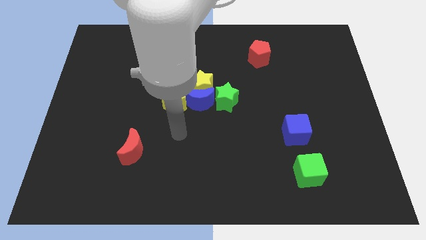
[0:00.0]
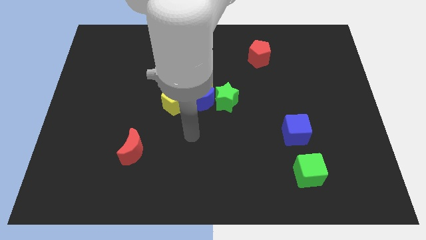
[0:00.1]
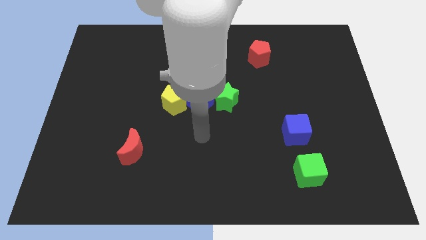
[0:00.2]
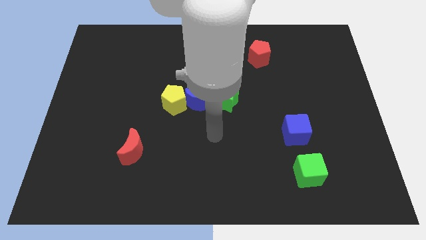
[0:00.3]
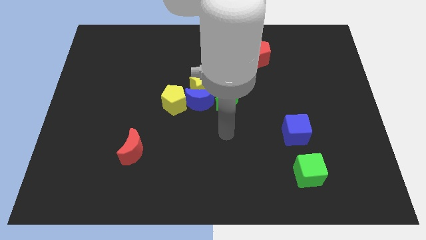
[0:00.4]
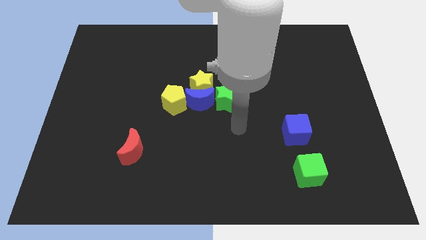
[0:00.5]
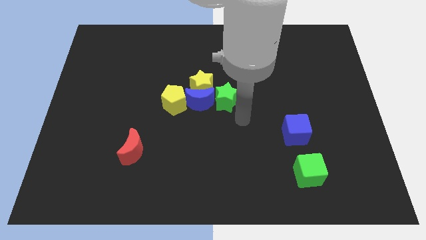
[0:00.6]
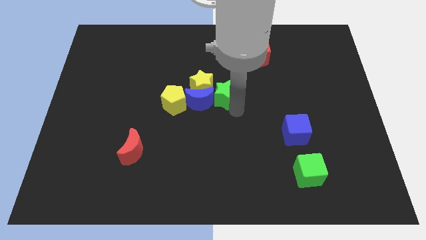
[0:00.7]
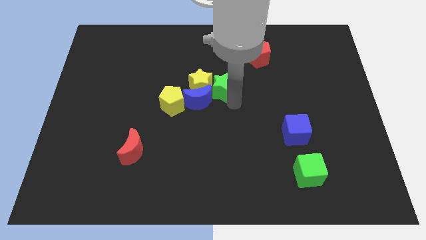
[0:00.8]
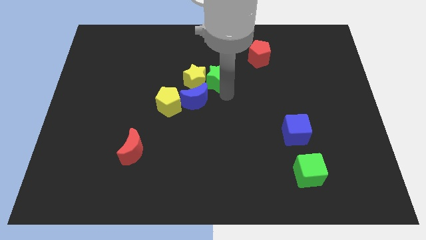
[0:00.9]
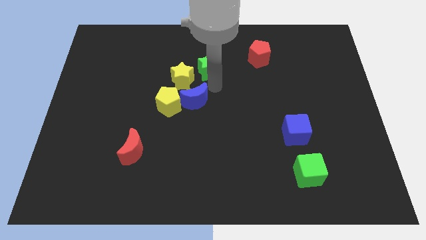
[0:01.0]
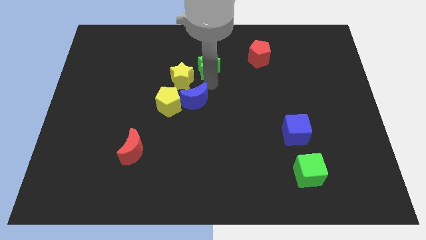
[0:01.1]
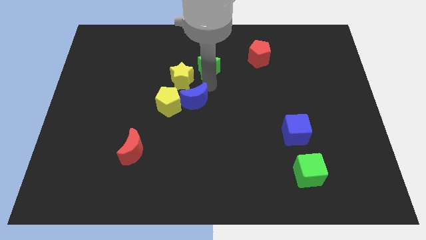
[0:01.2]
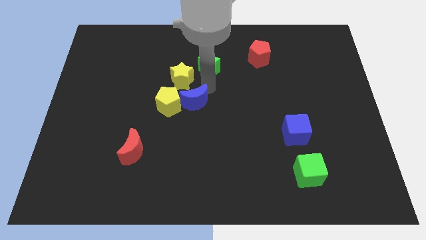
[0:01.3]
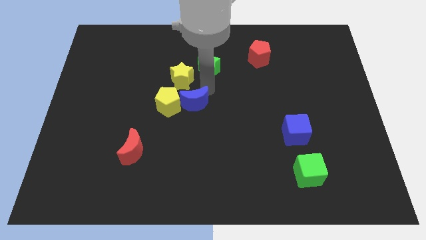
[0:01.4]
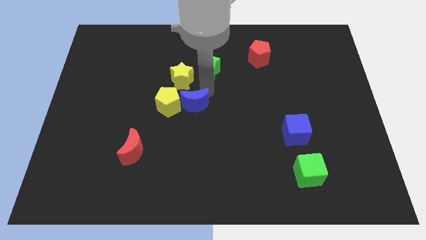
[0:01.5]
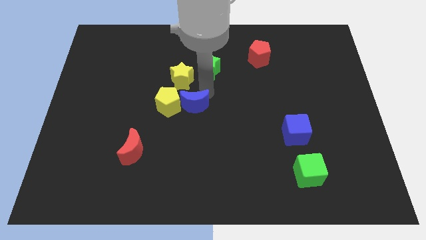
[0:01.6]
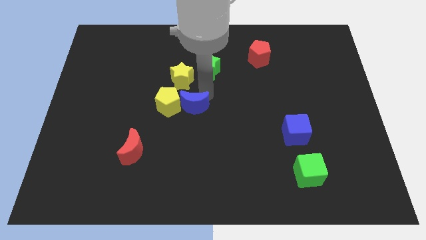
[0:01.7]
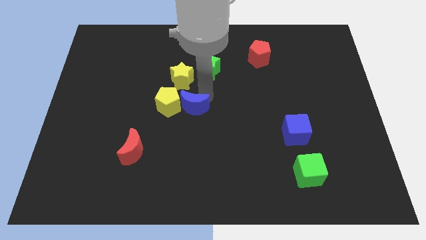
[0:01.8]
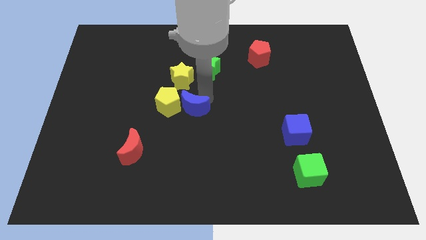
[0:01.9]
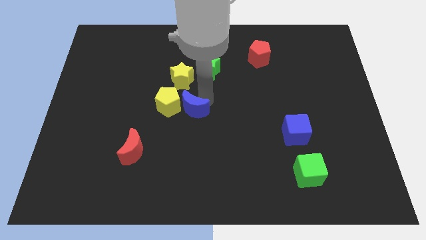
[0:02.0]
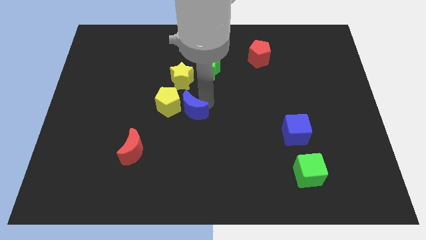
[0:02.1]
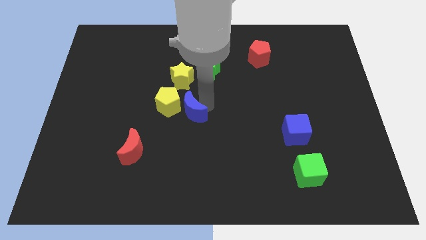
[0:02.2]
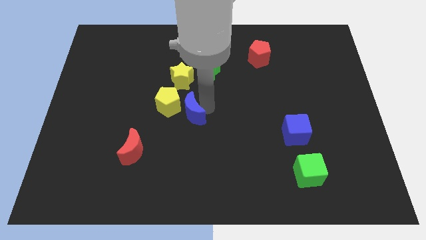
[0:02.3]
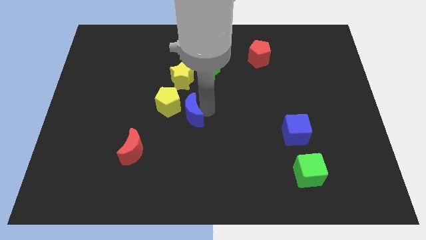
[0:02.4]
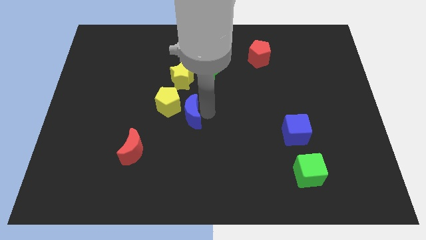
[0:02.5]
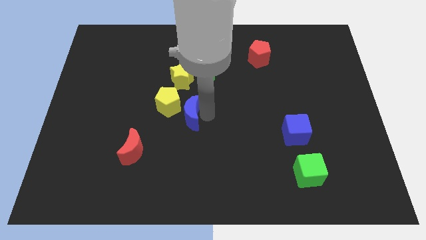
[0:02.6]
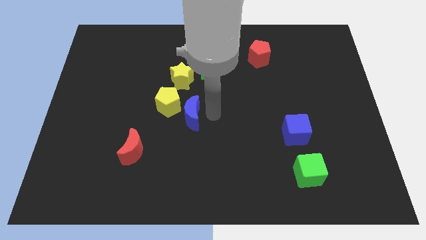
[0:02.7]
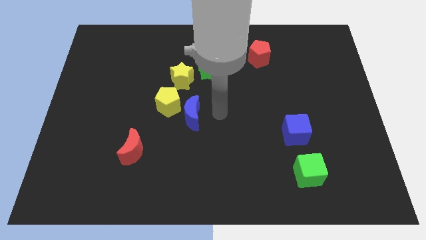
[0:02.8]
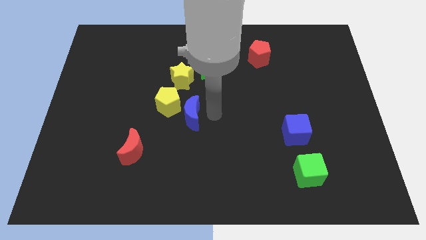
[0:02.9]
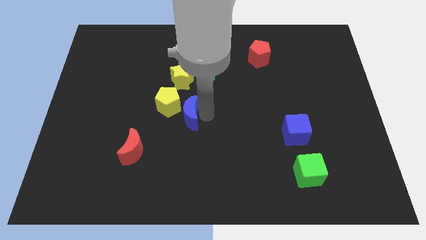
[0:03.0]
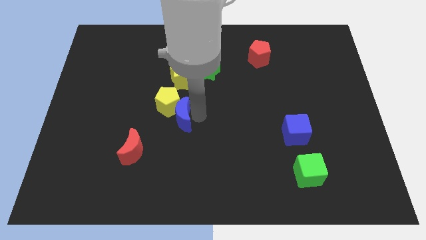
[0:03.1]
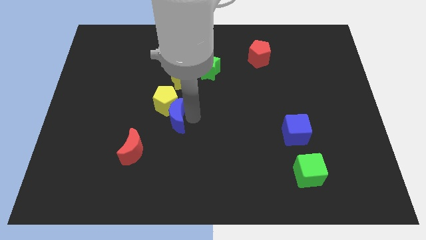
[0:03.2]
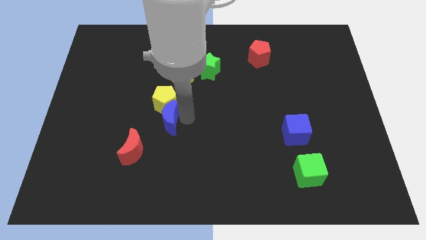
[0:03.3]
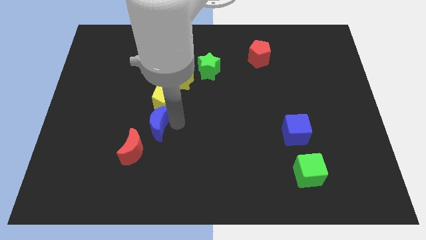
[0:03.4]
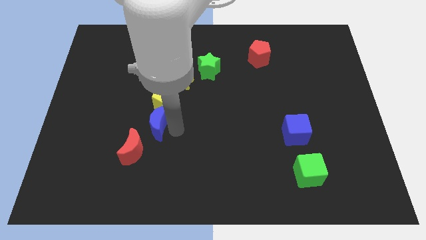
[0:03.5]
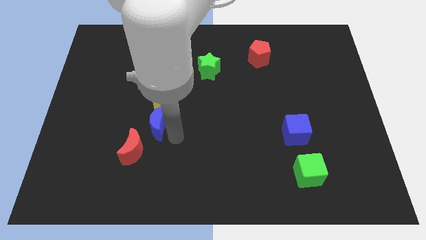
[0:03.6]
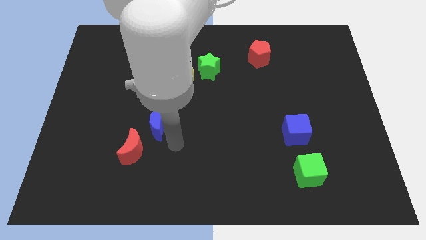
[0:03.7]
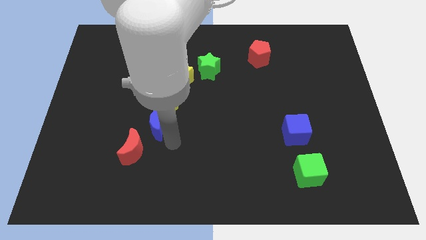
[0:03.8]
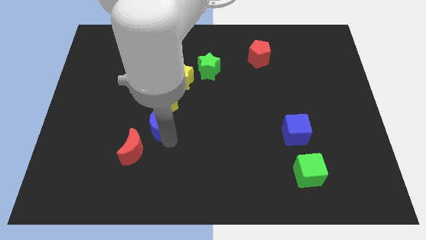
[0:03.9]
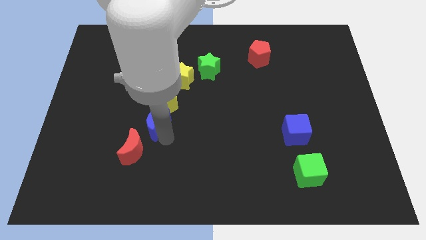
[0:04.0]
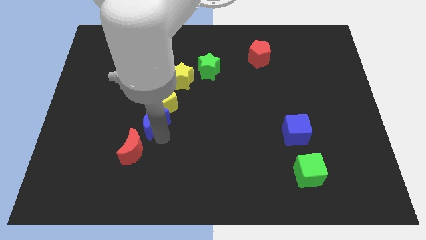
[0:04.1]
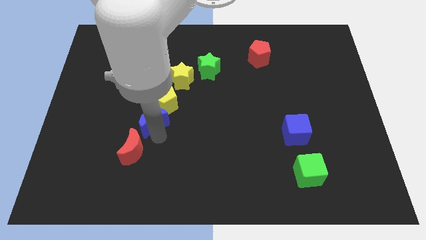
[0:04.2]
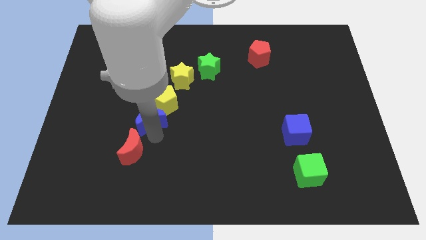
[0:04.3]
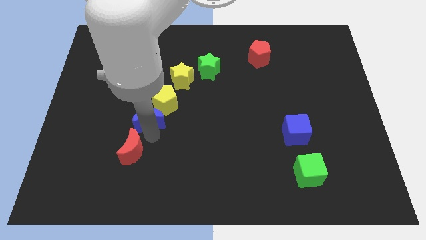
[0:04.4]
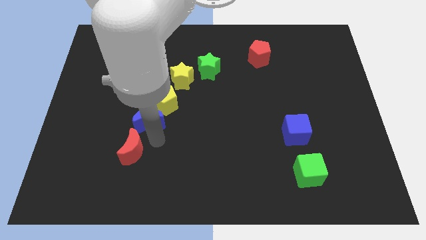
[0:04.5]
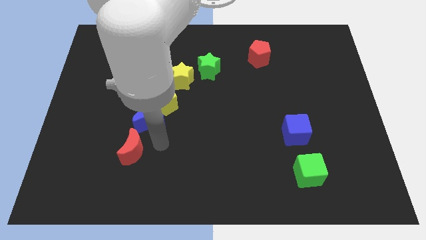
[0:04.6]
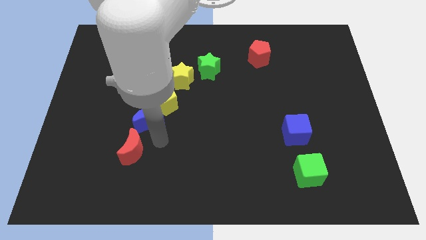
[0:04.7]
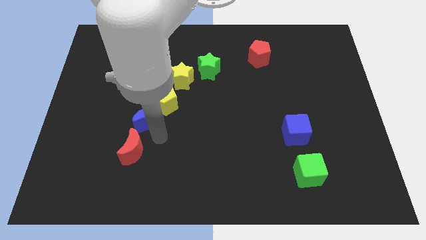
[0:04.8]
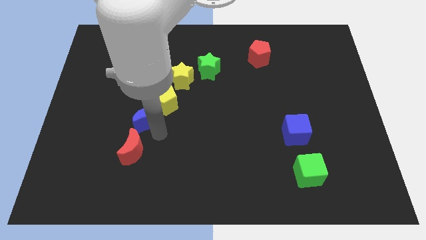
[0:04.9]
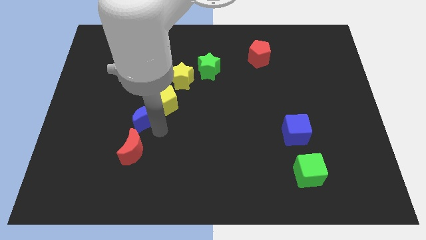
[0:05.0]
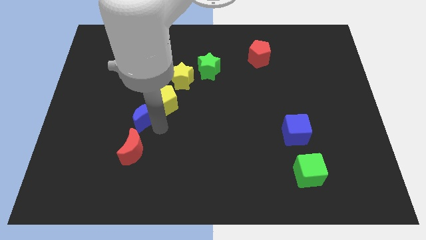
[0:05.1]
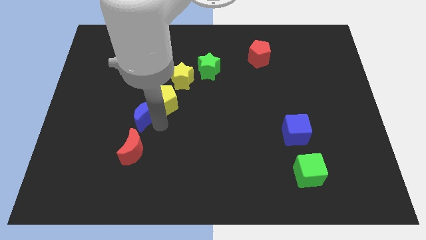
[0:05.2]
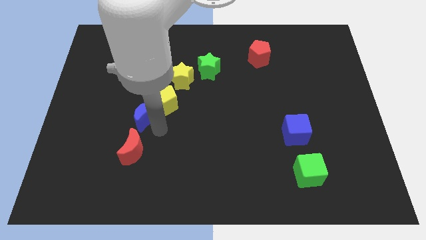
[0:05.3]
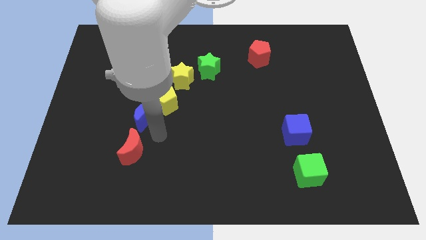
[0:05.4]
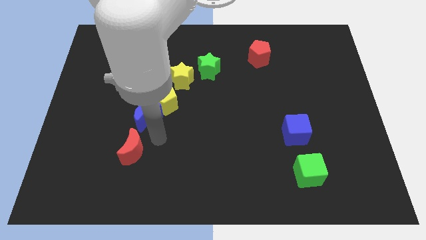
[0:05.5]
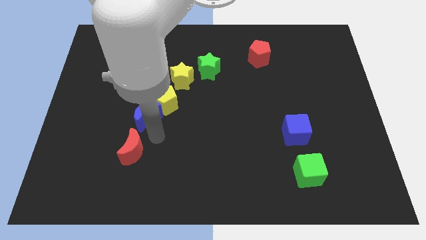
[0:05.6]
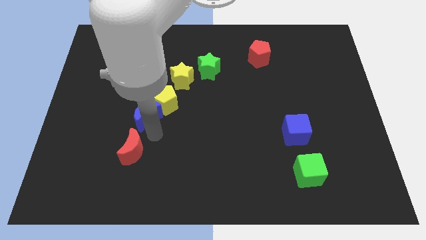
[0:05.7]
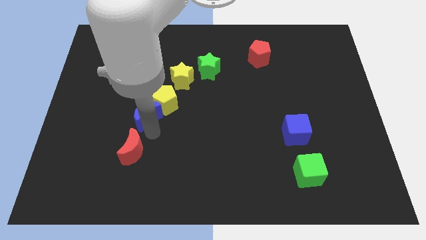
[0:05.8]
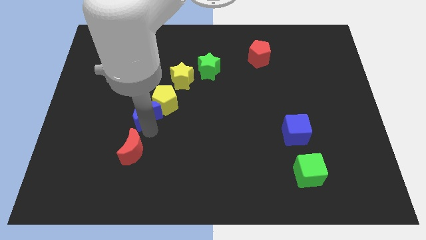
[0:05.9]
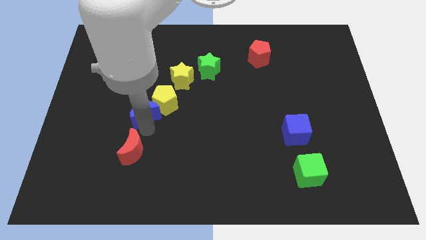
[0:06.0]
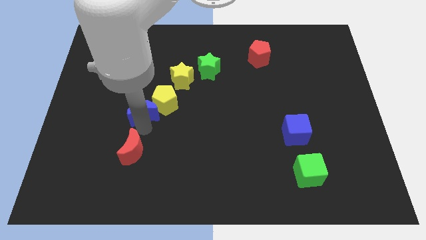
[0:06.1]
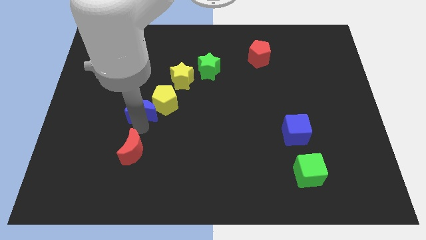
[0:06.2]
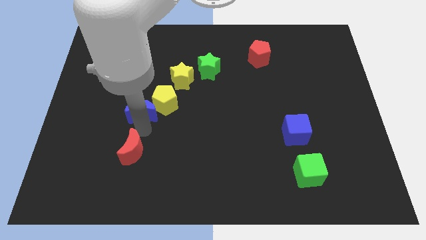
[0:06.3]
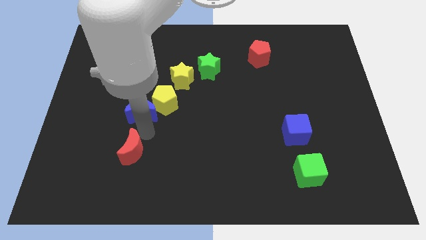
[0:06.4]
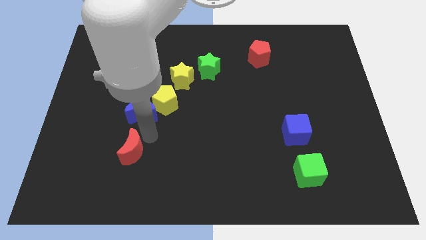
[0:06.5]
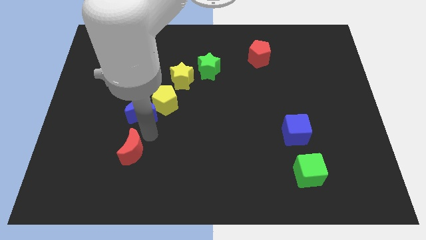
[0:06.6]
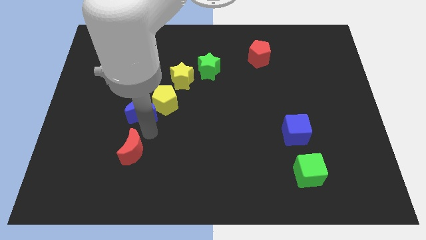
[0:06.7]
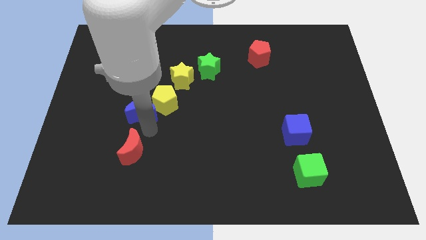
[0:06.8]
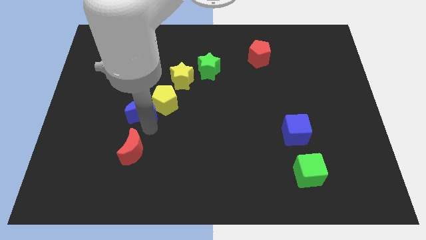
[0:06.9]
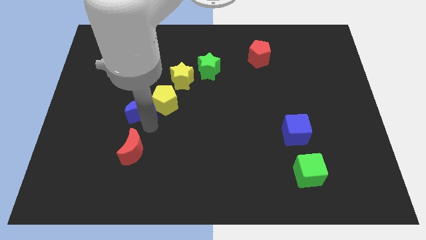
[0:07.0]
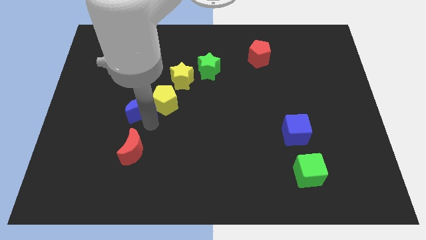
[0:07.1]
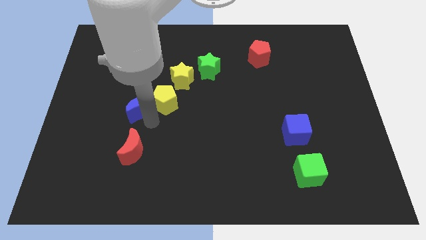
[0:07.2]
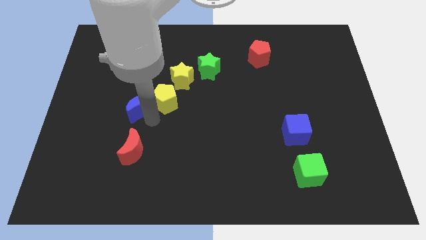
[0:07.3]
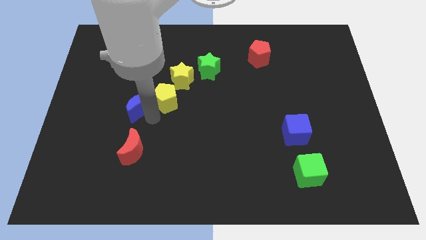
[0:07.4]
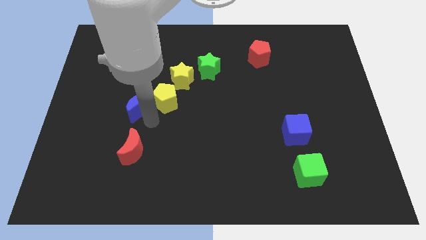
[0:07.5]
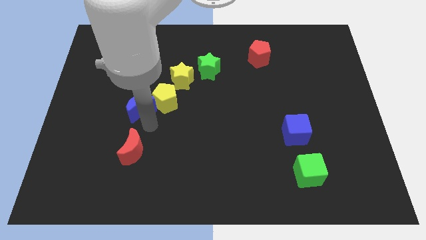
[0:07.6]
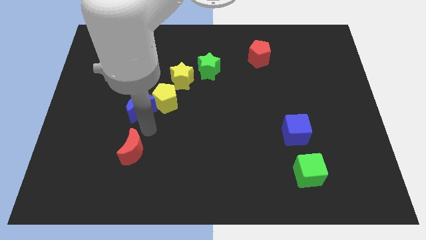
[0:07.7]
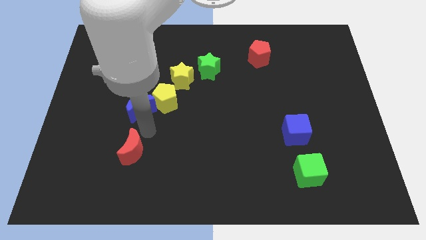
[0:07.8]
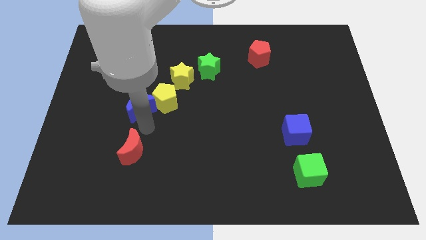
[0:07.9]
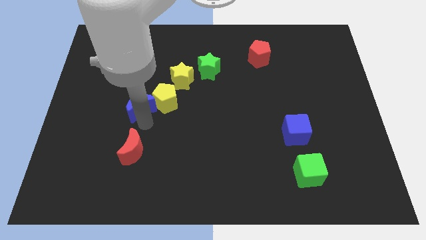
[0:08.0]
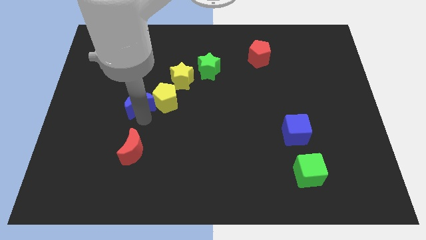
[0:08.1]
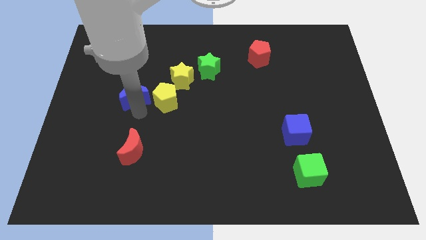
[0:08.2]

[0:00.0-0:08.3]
move the blue moon a bit up and then left

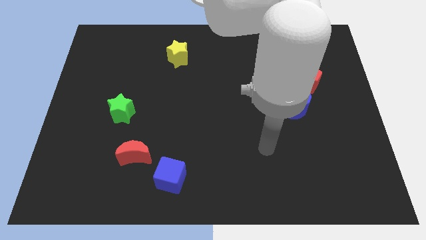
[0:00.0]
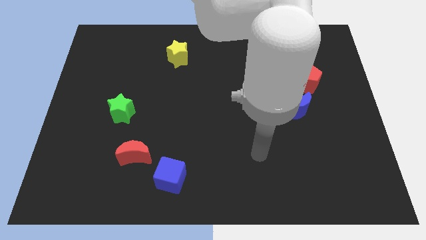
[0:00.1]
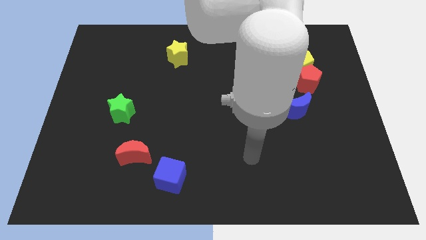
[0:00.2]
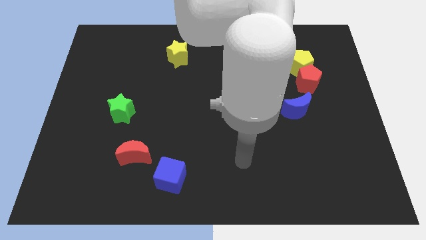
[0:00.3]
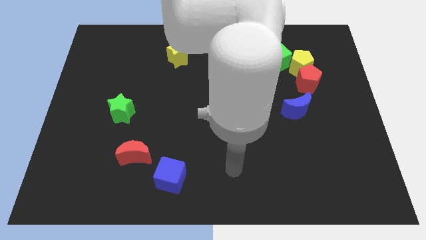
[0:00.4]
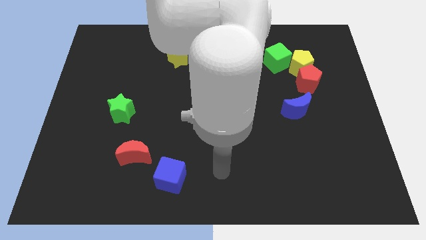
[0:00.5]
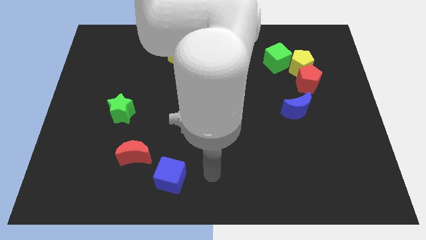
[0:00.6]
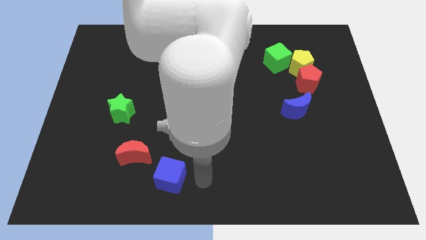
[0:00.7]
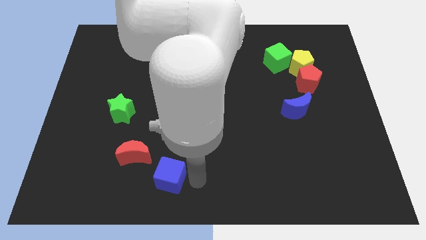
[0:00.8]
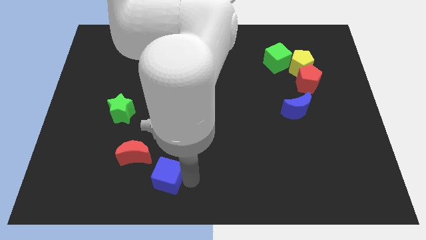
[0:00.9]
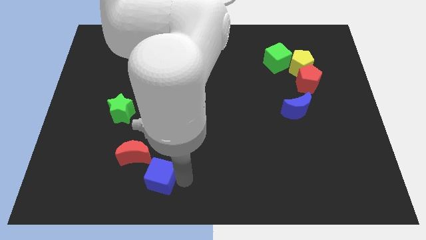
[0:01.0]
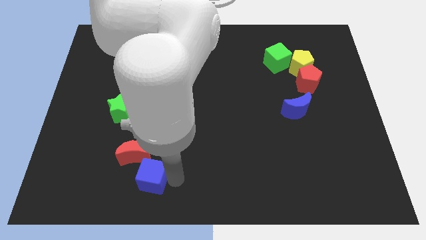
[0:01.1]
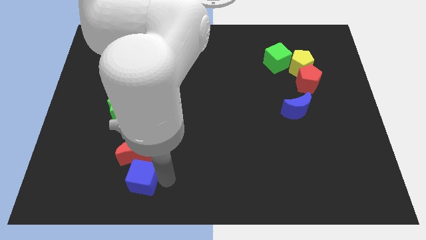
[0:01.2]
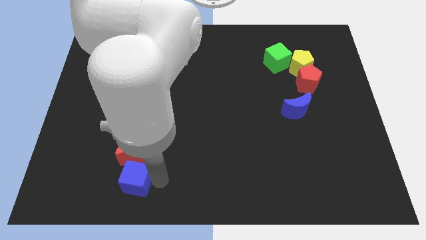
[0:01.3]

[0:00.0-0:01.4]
slide the blue cube somewhat to the left
